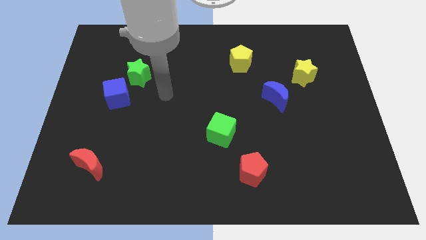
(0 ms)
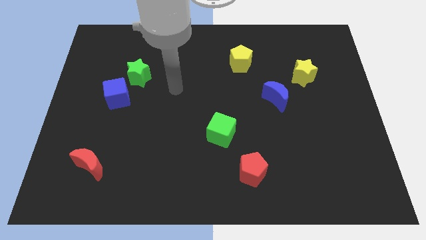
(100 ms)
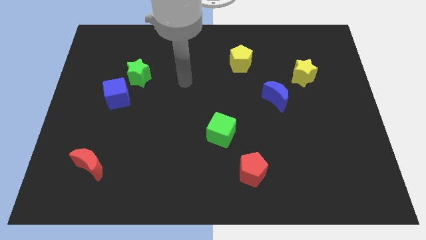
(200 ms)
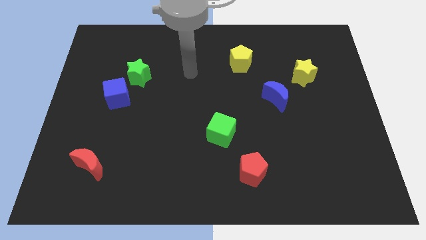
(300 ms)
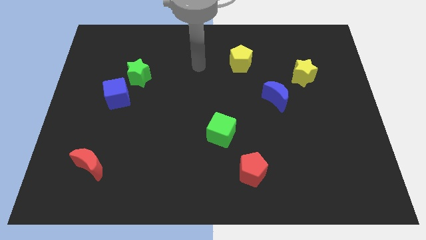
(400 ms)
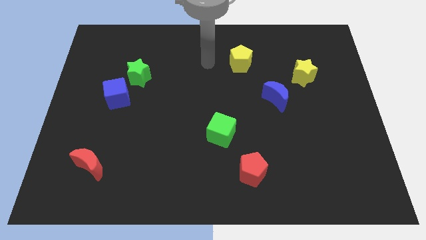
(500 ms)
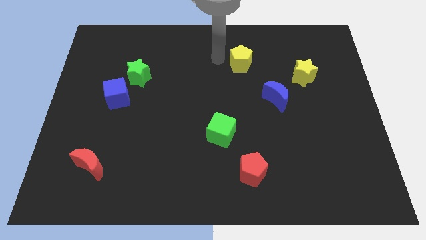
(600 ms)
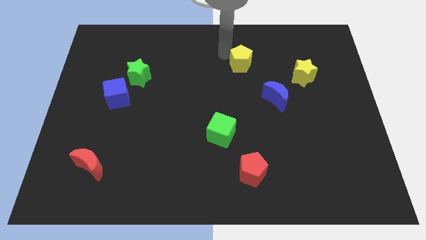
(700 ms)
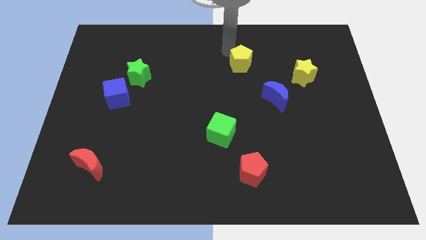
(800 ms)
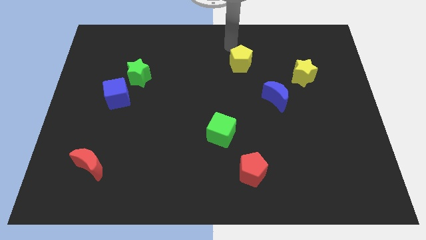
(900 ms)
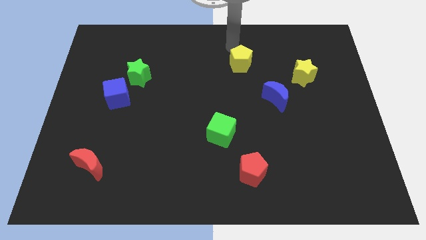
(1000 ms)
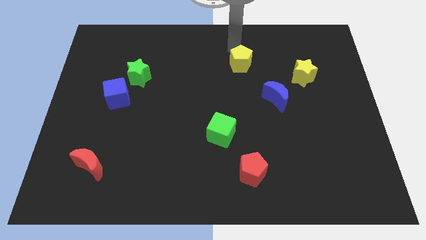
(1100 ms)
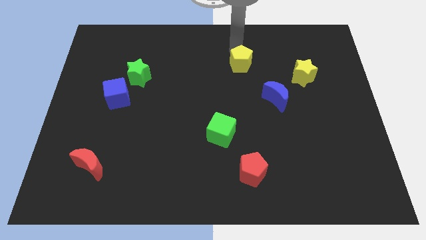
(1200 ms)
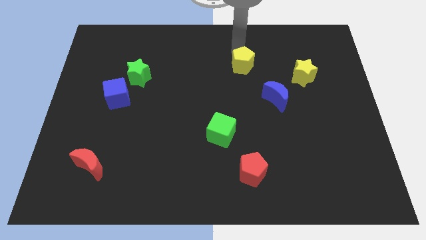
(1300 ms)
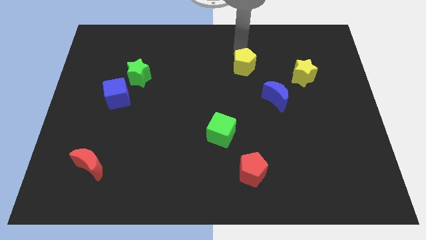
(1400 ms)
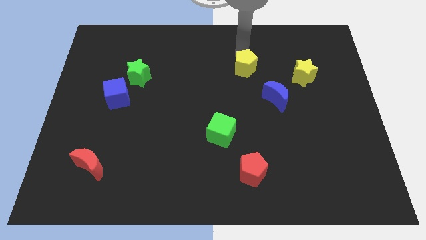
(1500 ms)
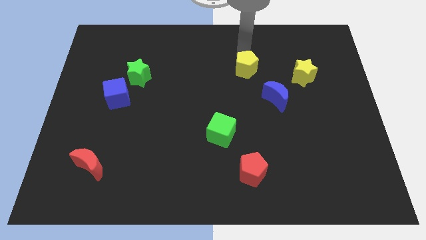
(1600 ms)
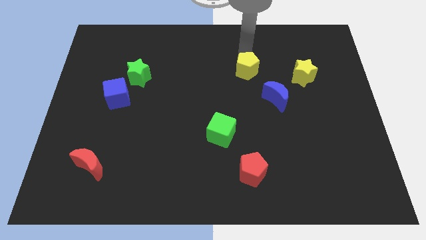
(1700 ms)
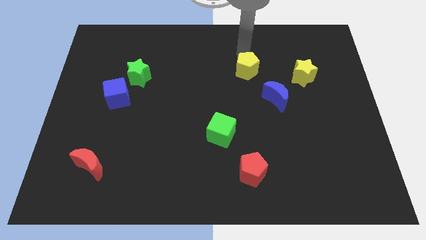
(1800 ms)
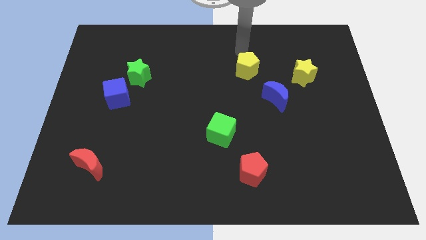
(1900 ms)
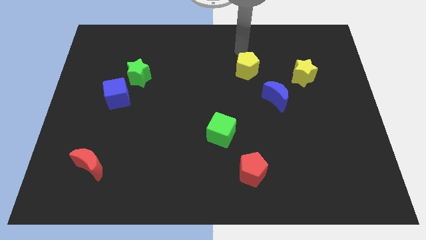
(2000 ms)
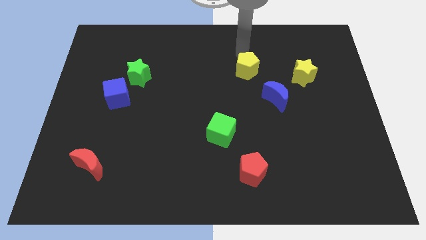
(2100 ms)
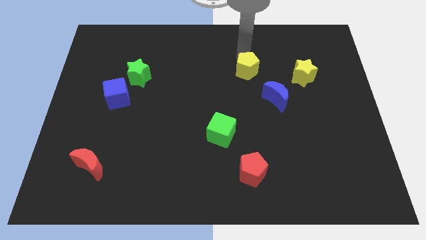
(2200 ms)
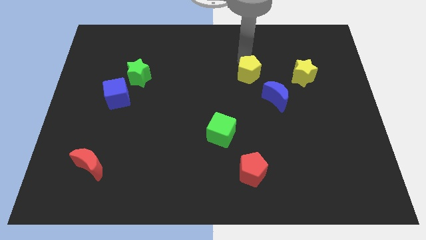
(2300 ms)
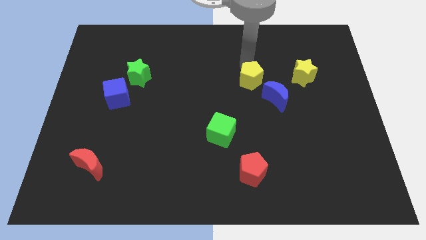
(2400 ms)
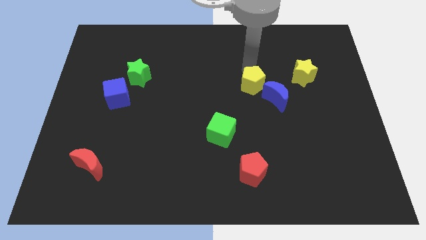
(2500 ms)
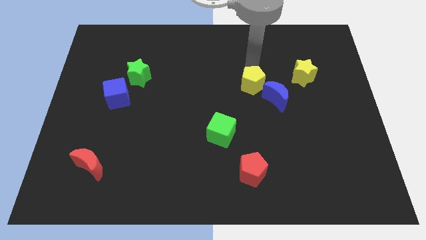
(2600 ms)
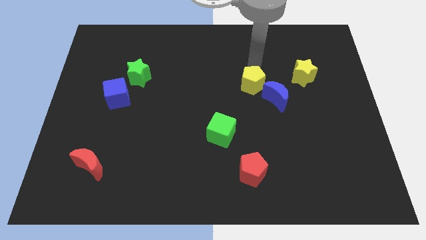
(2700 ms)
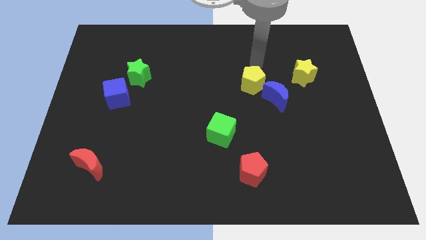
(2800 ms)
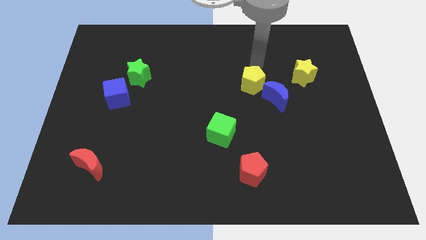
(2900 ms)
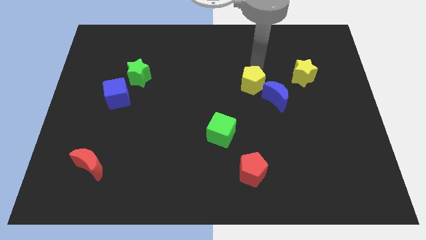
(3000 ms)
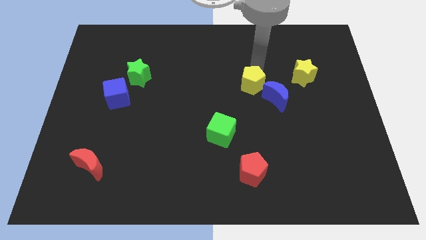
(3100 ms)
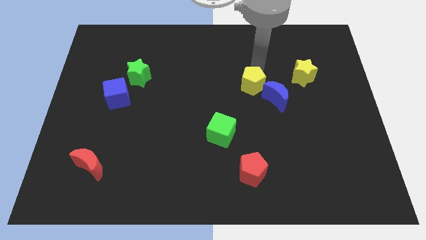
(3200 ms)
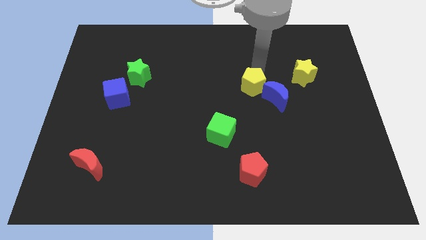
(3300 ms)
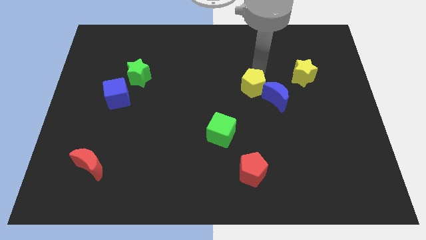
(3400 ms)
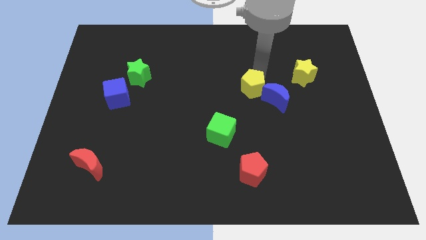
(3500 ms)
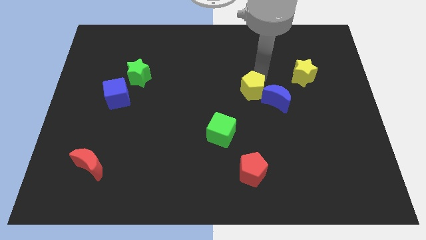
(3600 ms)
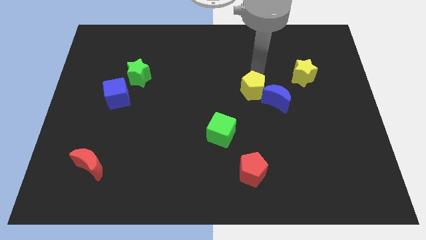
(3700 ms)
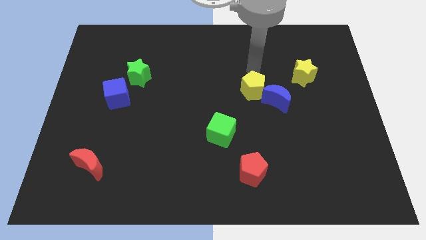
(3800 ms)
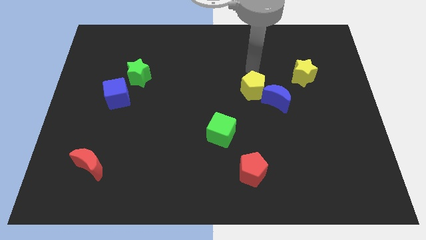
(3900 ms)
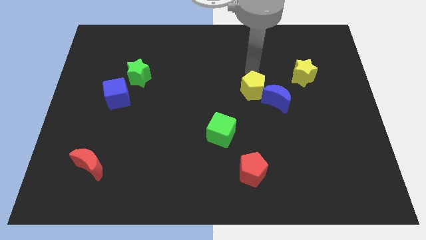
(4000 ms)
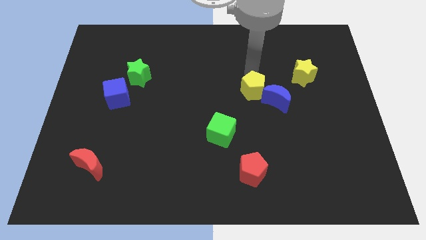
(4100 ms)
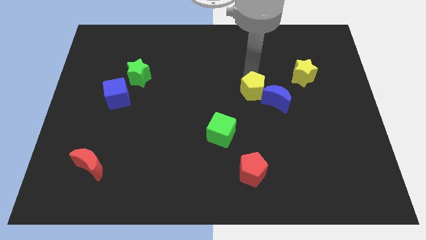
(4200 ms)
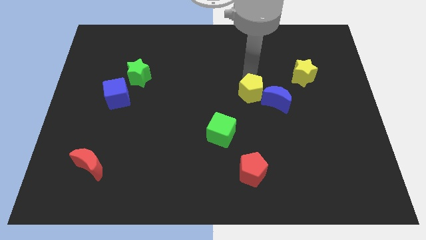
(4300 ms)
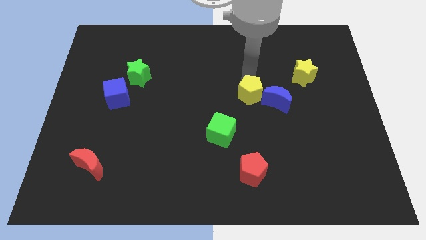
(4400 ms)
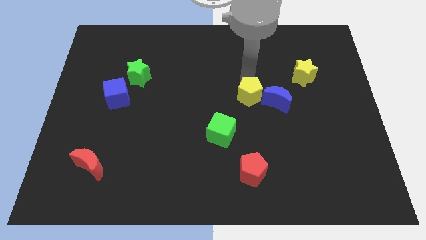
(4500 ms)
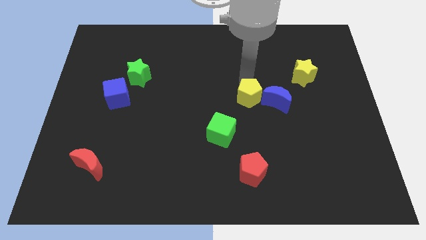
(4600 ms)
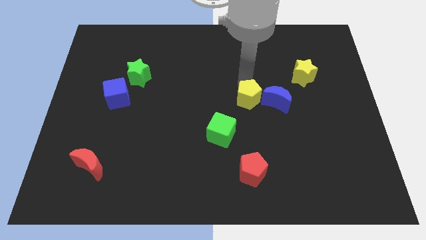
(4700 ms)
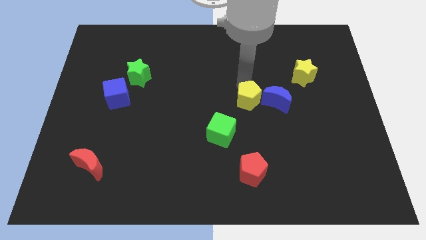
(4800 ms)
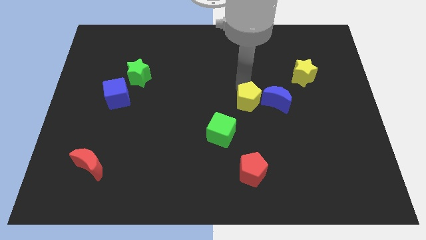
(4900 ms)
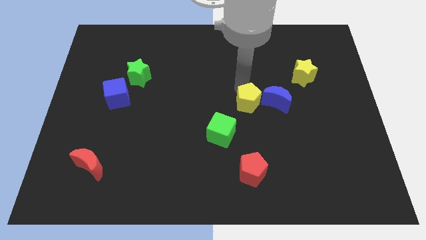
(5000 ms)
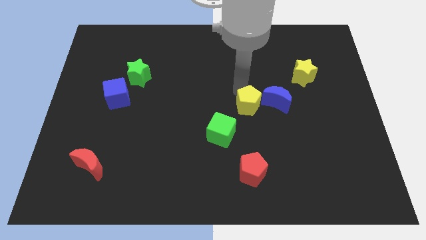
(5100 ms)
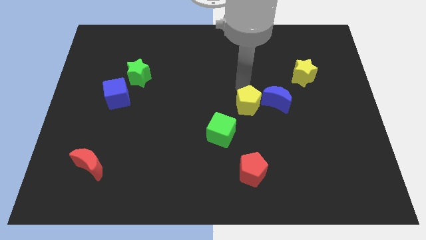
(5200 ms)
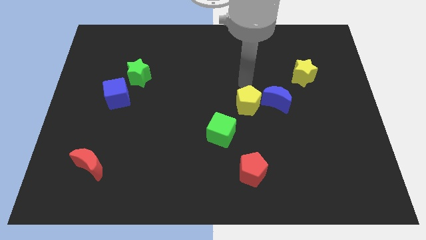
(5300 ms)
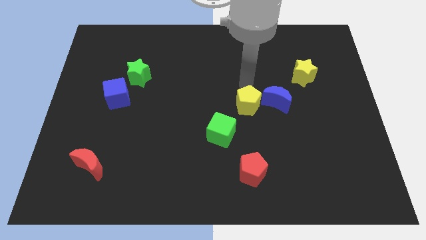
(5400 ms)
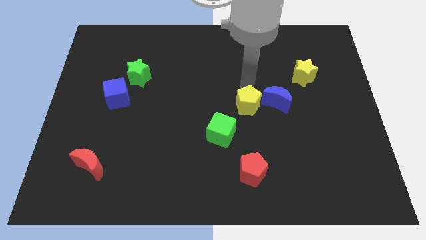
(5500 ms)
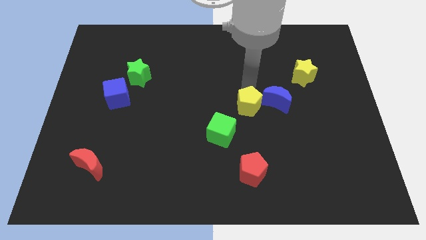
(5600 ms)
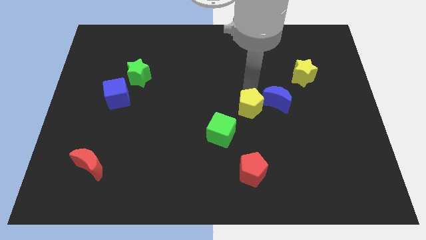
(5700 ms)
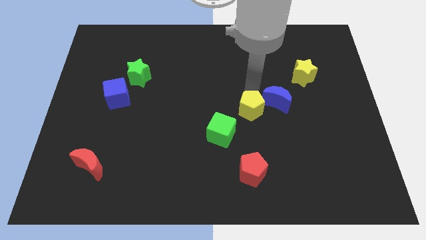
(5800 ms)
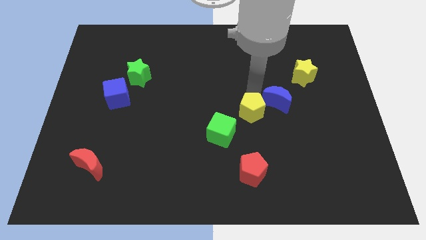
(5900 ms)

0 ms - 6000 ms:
put the yellow pentagon to the top side of the red pentagon

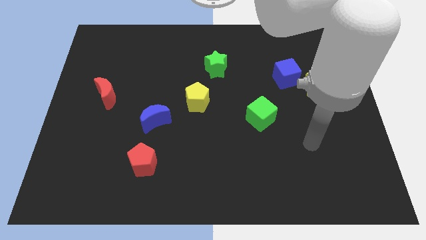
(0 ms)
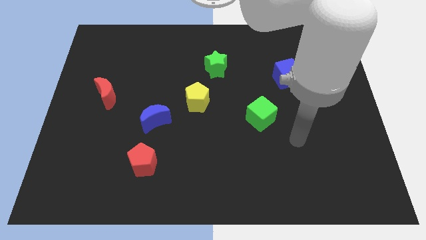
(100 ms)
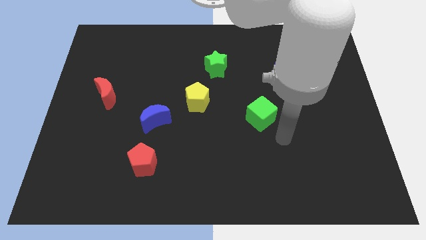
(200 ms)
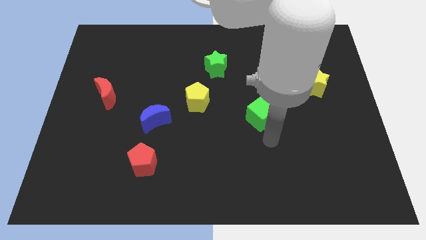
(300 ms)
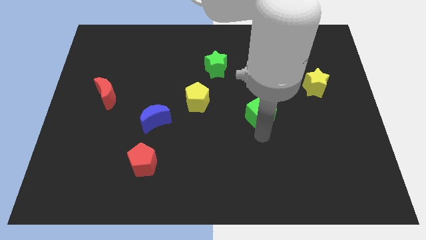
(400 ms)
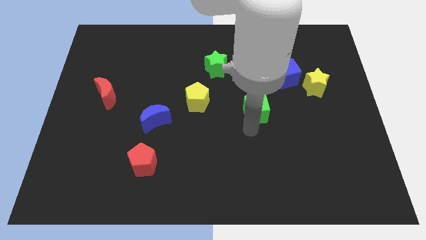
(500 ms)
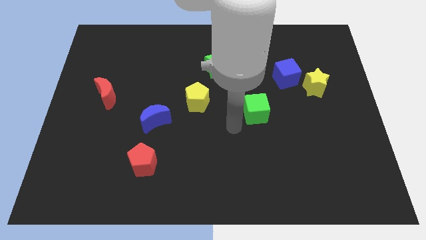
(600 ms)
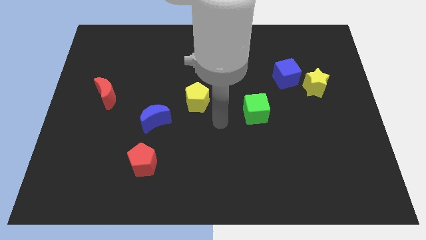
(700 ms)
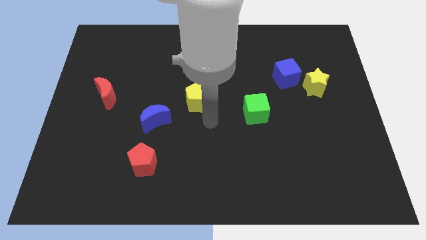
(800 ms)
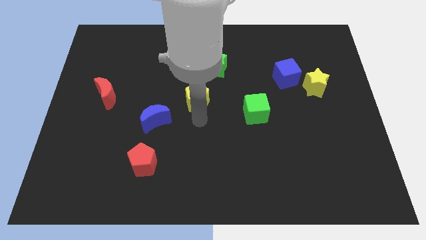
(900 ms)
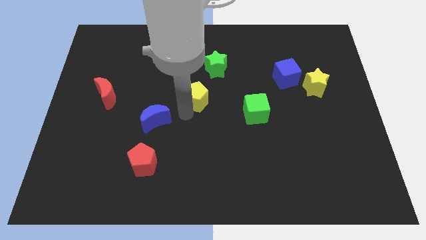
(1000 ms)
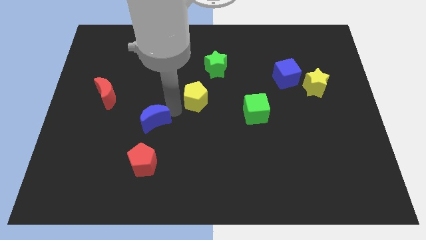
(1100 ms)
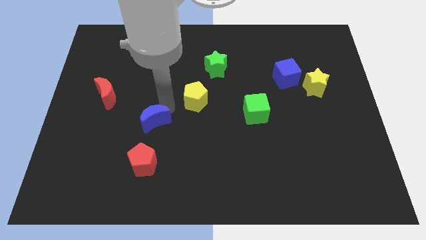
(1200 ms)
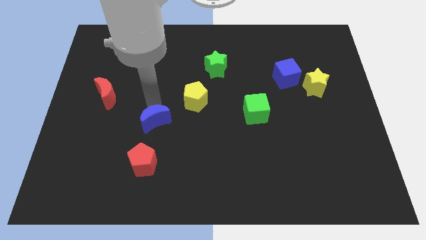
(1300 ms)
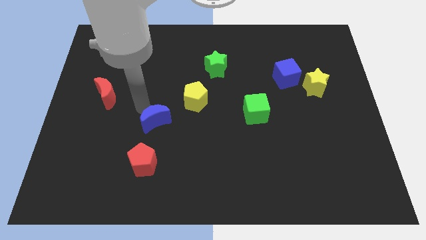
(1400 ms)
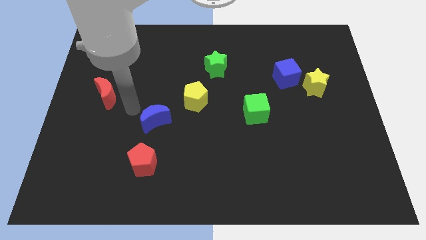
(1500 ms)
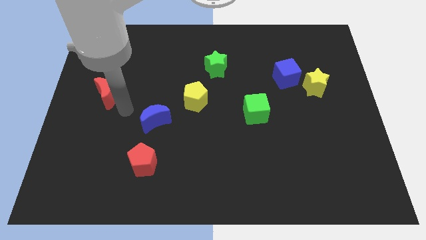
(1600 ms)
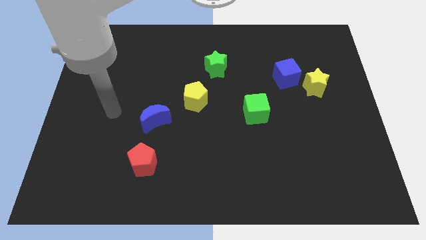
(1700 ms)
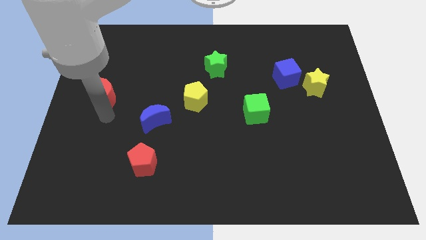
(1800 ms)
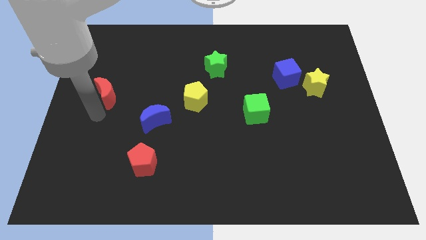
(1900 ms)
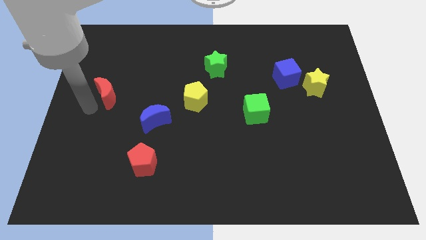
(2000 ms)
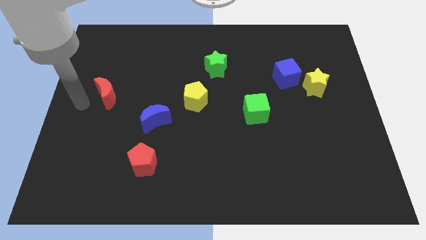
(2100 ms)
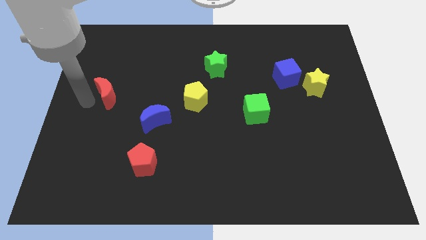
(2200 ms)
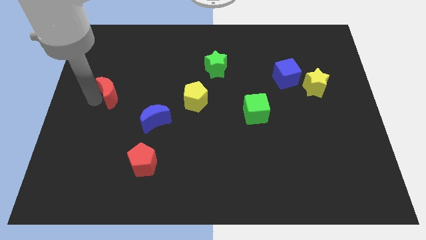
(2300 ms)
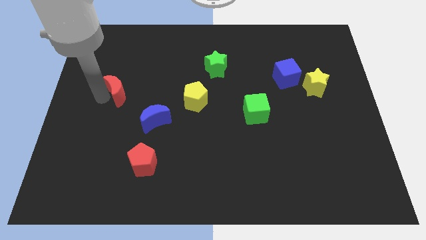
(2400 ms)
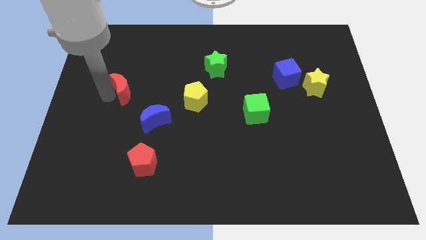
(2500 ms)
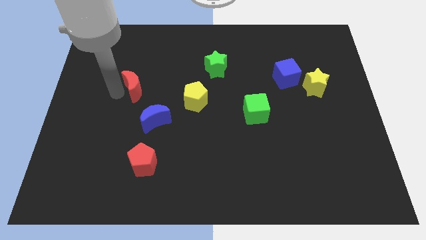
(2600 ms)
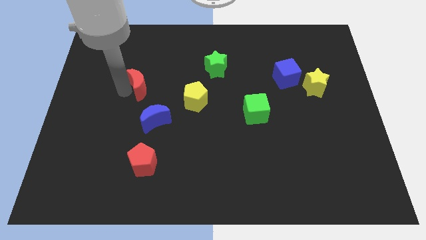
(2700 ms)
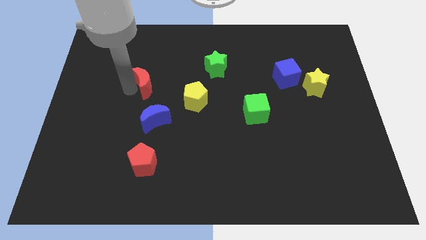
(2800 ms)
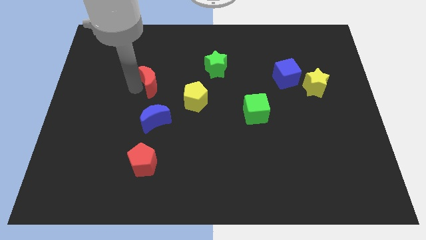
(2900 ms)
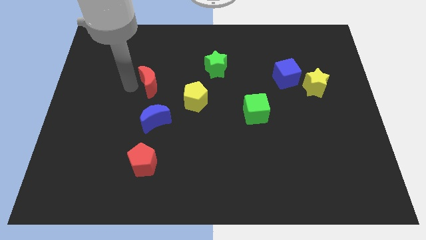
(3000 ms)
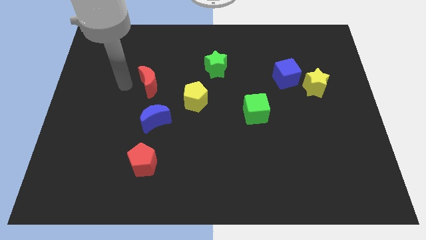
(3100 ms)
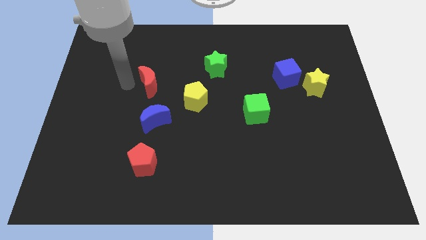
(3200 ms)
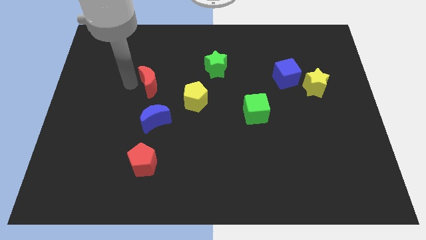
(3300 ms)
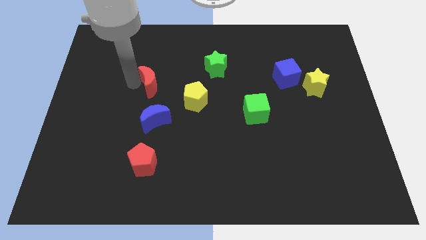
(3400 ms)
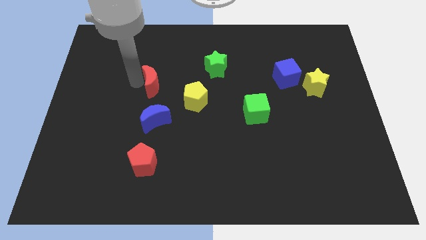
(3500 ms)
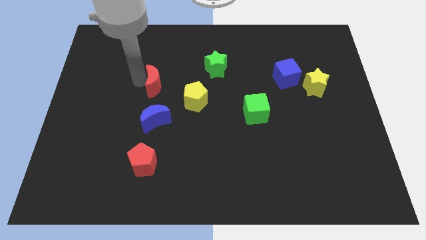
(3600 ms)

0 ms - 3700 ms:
slide the red moon diagonally up and to the left of the yellow pentagon
